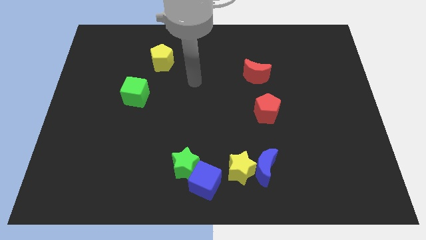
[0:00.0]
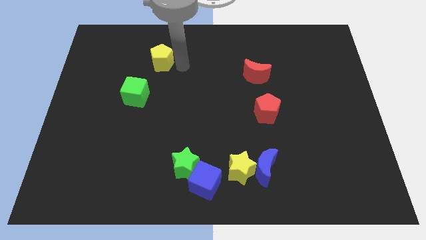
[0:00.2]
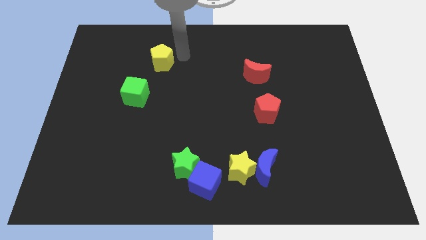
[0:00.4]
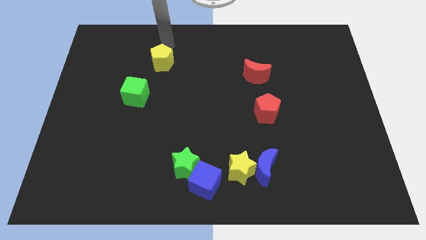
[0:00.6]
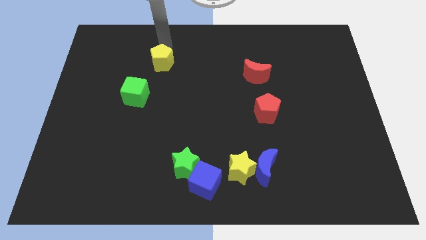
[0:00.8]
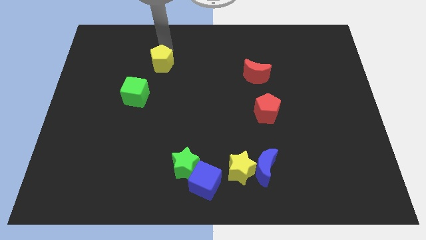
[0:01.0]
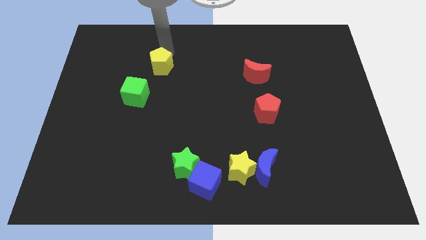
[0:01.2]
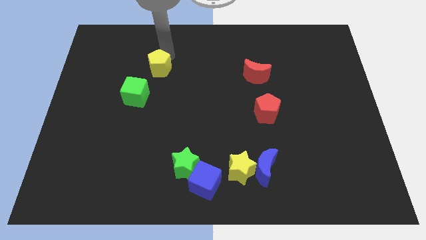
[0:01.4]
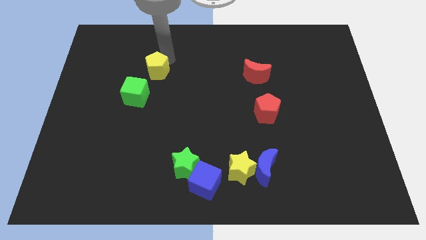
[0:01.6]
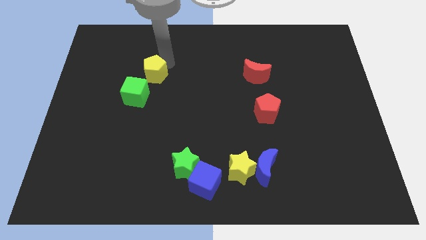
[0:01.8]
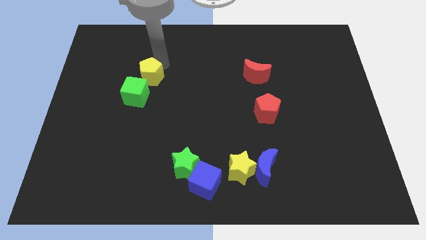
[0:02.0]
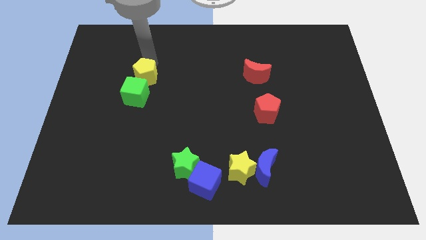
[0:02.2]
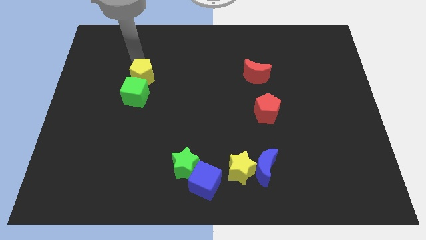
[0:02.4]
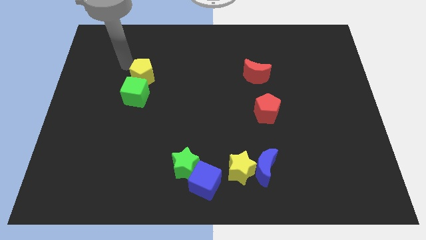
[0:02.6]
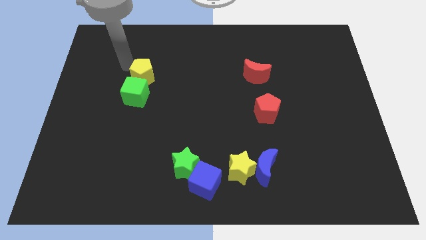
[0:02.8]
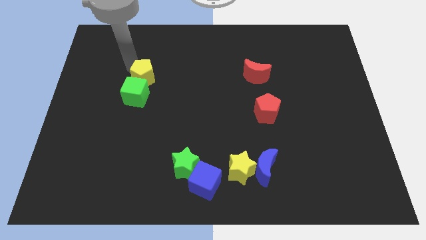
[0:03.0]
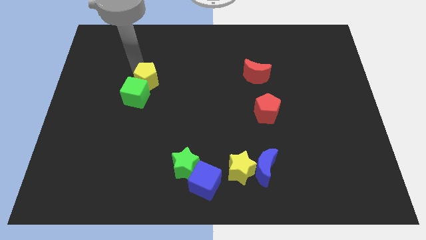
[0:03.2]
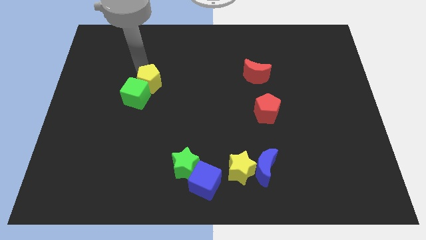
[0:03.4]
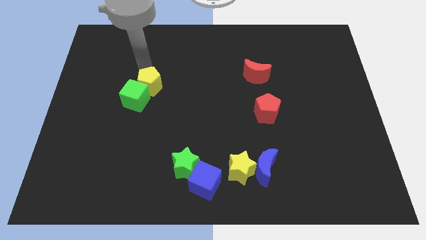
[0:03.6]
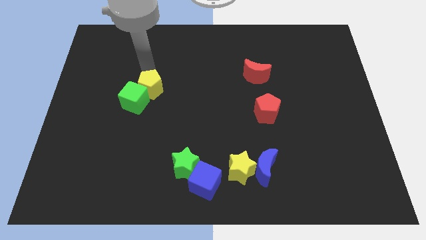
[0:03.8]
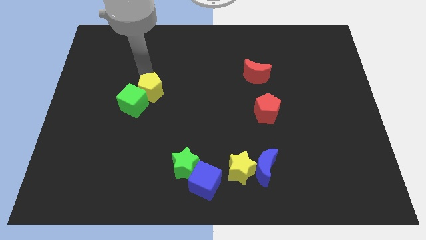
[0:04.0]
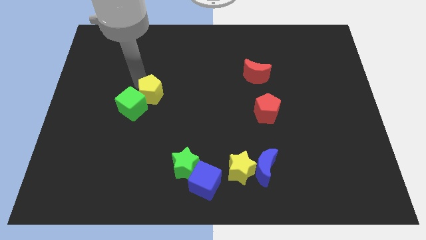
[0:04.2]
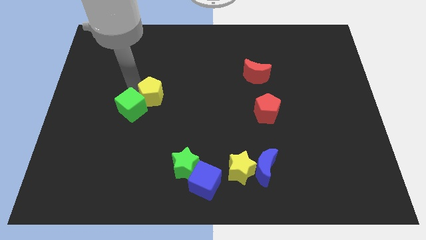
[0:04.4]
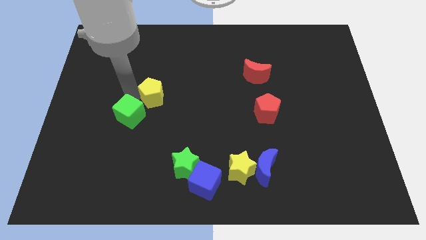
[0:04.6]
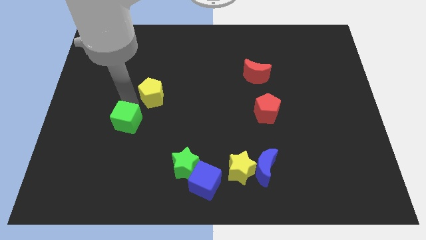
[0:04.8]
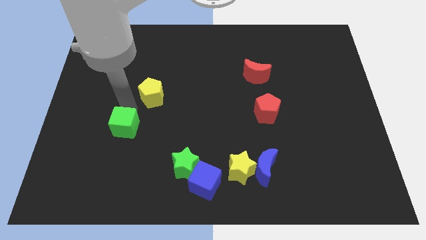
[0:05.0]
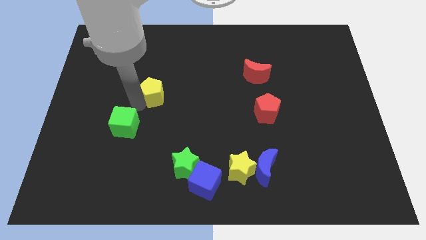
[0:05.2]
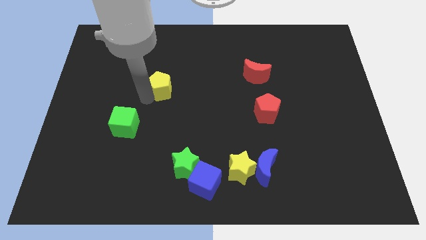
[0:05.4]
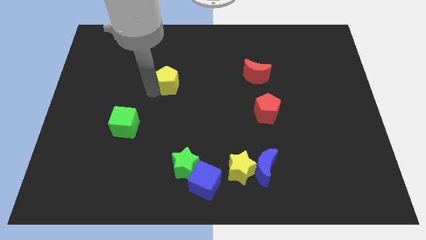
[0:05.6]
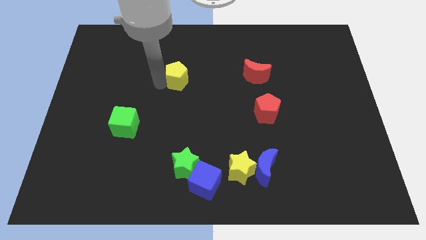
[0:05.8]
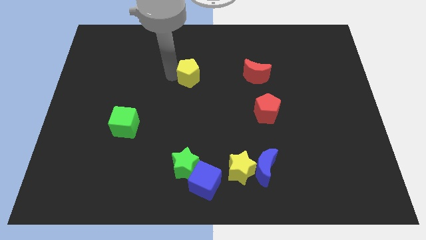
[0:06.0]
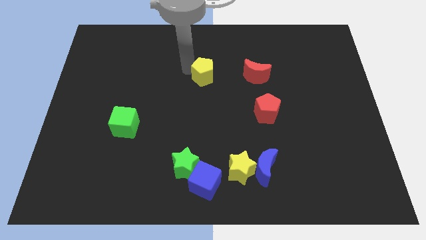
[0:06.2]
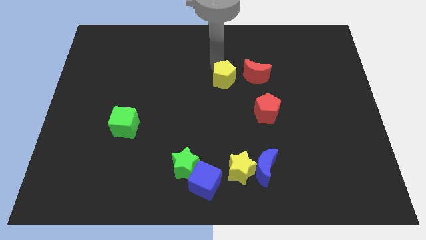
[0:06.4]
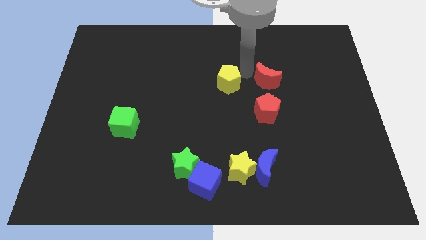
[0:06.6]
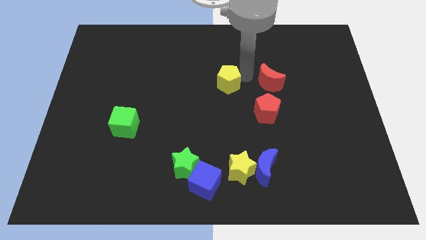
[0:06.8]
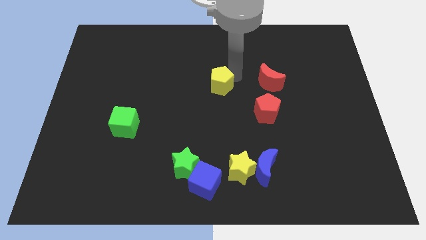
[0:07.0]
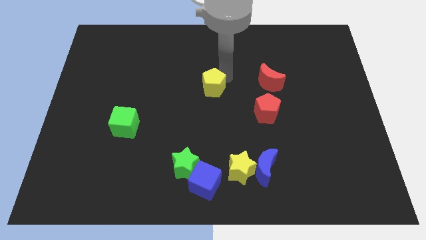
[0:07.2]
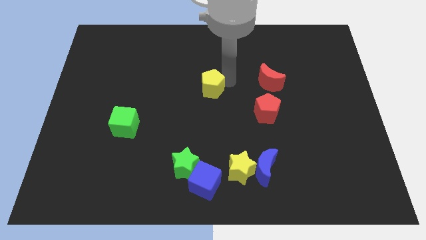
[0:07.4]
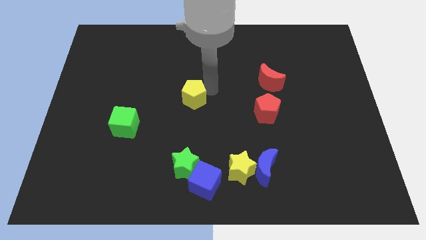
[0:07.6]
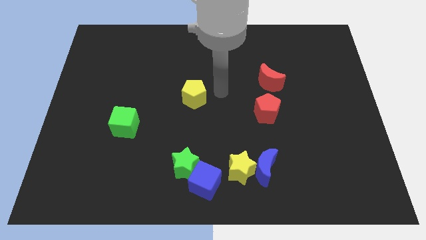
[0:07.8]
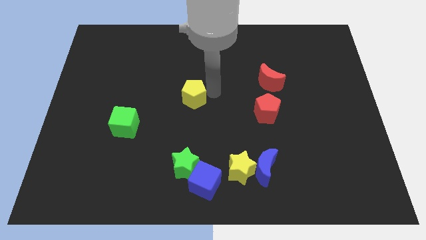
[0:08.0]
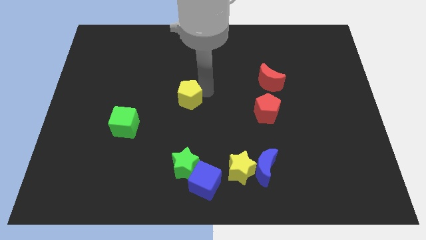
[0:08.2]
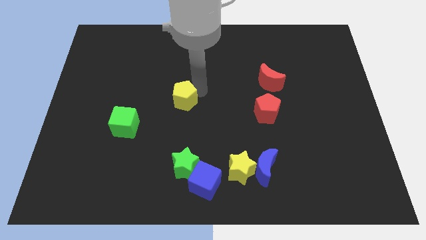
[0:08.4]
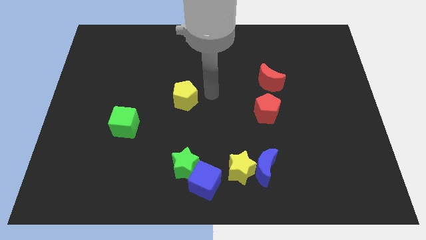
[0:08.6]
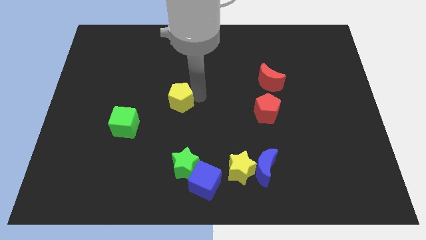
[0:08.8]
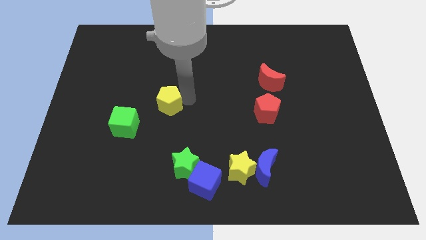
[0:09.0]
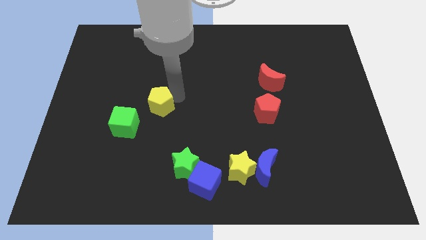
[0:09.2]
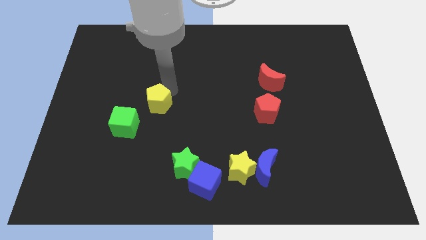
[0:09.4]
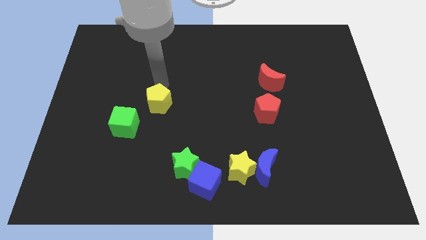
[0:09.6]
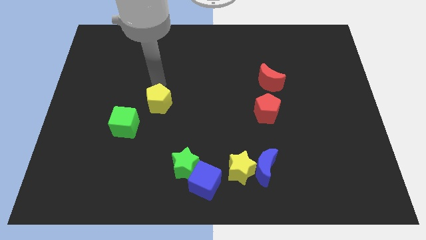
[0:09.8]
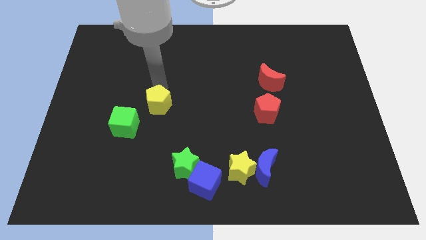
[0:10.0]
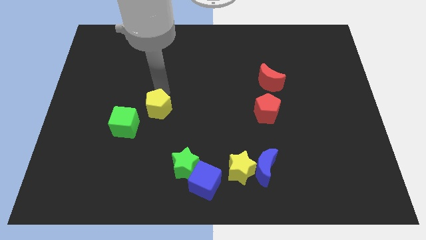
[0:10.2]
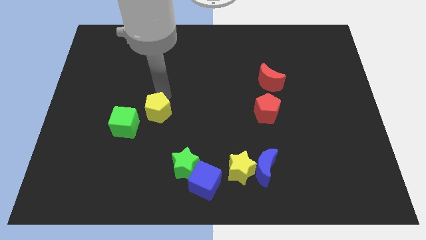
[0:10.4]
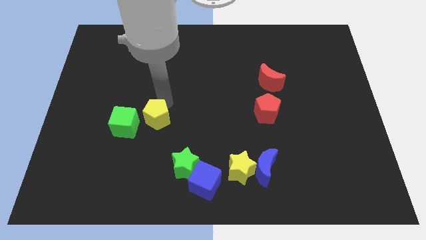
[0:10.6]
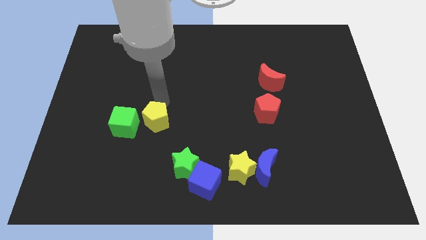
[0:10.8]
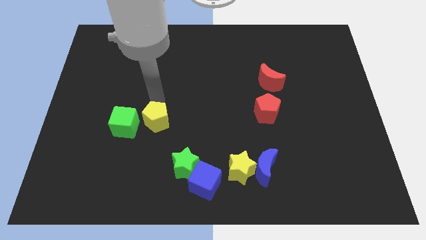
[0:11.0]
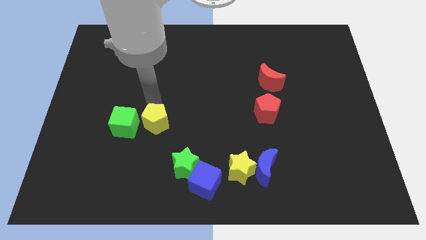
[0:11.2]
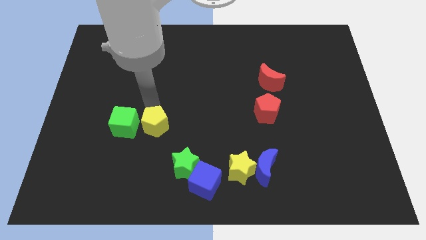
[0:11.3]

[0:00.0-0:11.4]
move the yellow pentagon down

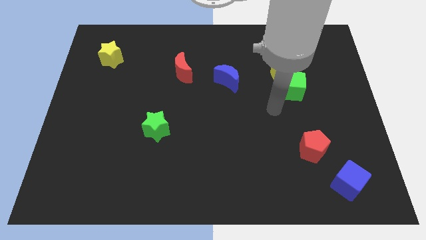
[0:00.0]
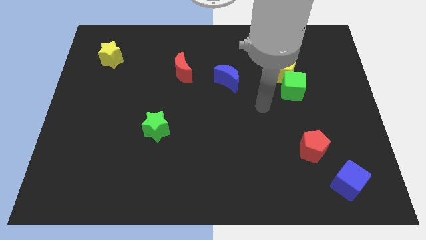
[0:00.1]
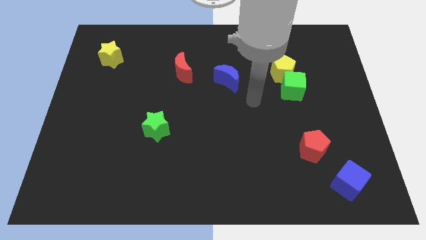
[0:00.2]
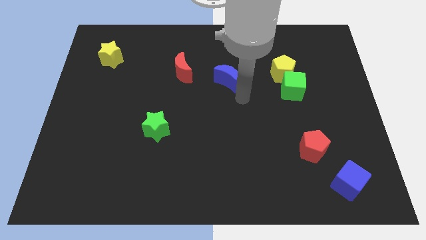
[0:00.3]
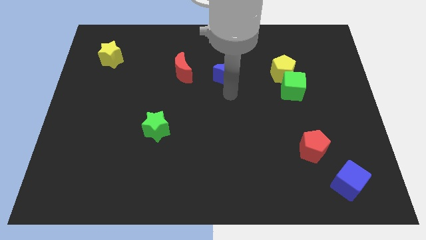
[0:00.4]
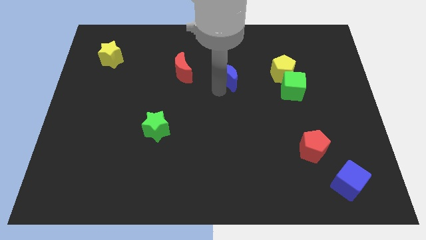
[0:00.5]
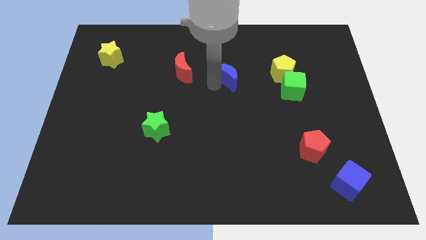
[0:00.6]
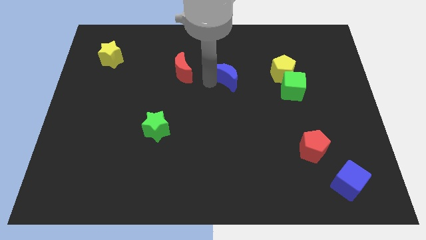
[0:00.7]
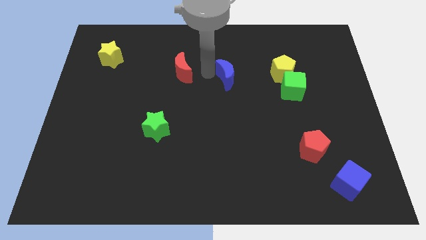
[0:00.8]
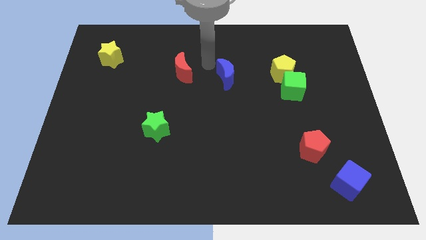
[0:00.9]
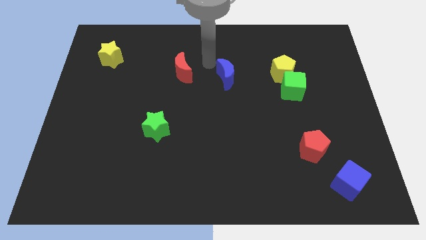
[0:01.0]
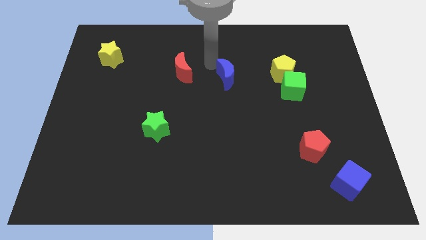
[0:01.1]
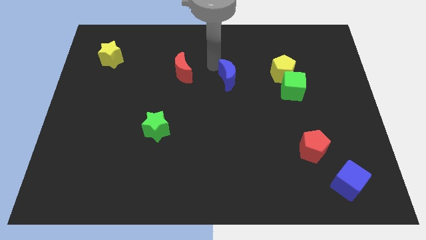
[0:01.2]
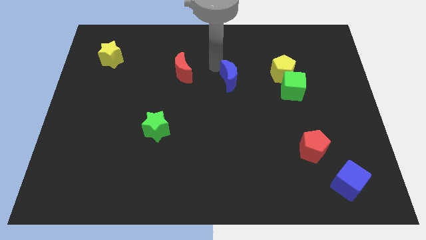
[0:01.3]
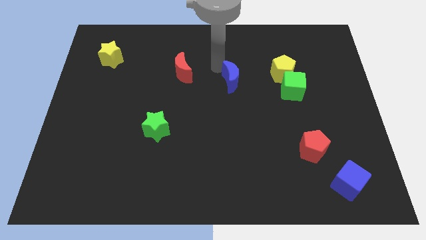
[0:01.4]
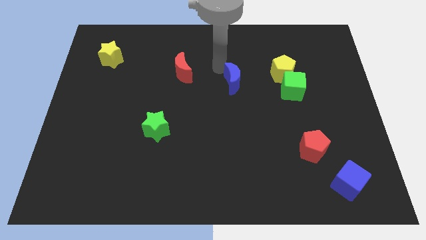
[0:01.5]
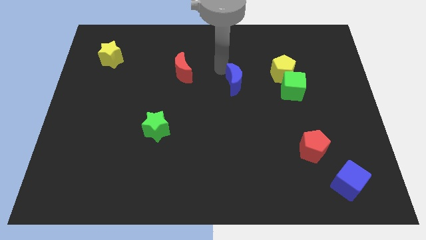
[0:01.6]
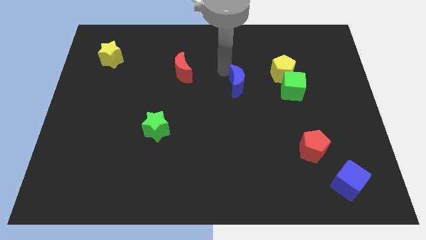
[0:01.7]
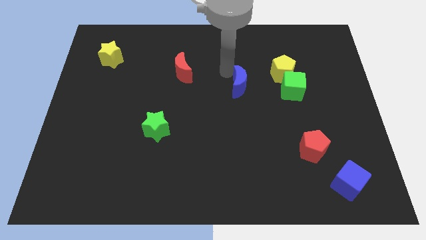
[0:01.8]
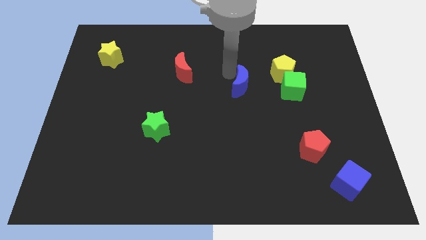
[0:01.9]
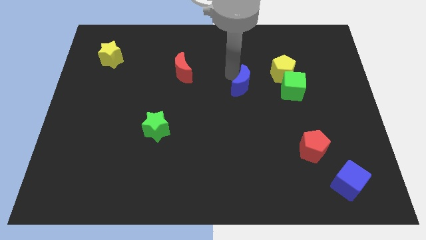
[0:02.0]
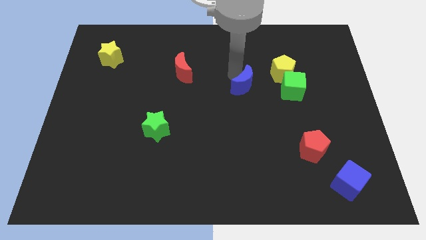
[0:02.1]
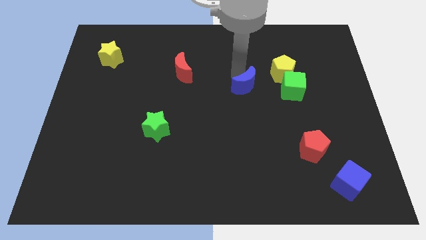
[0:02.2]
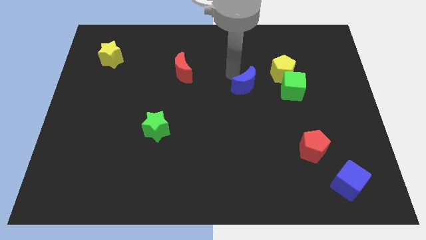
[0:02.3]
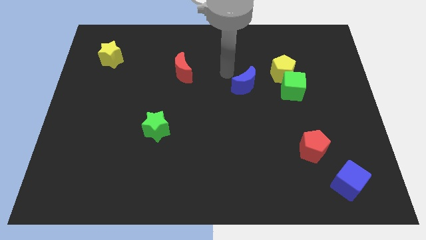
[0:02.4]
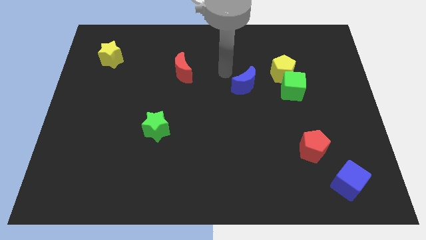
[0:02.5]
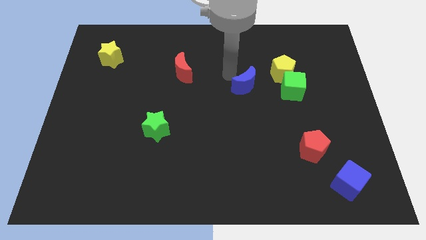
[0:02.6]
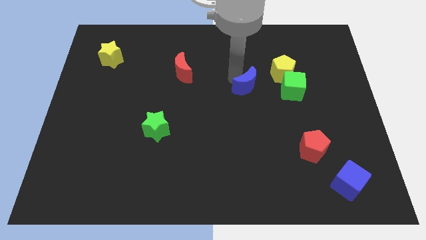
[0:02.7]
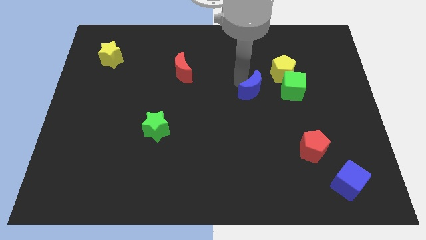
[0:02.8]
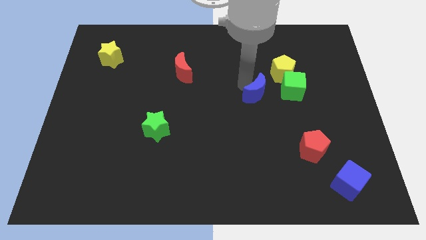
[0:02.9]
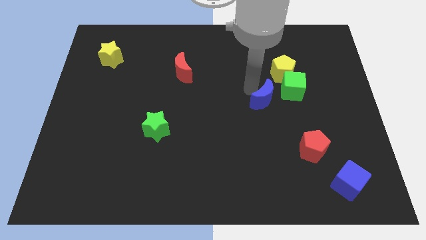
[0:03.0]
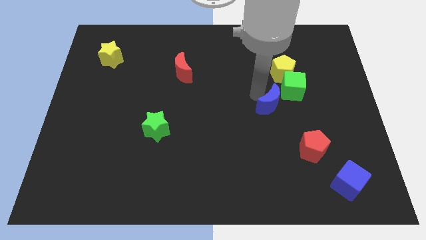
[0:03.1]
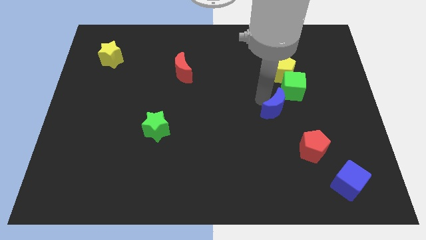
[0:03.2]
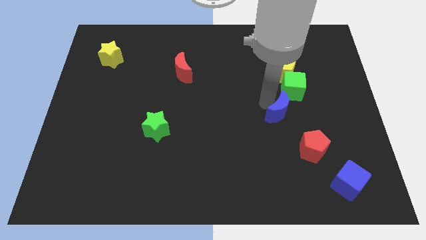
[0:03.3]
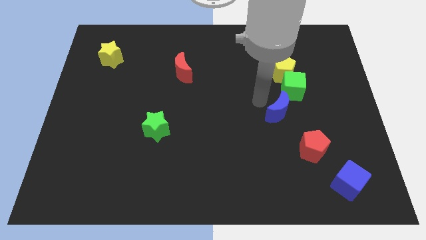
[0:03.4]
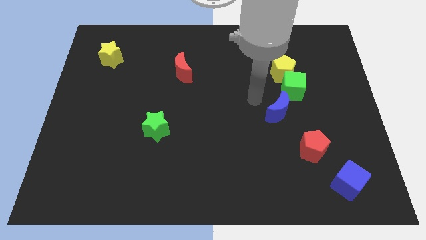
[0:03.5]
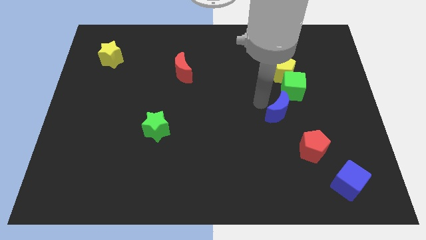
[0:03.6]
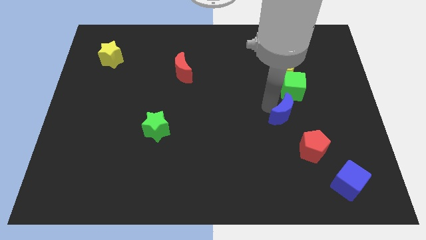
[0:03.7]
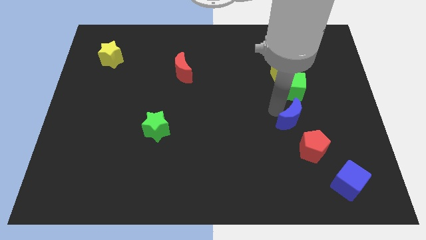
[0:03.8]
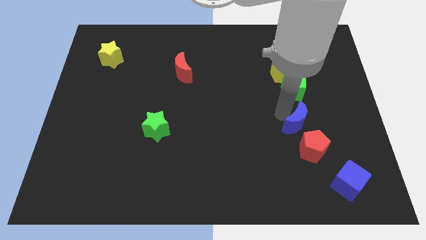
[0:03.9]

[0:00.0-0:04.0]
slide the blue moon downwards and right diagonally
